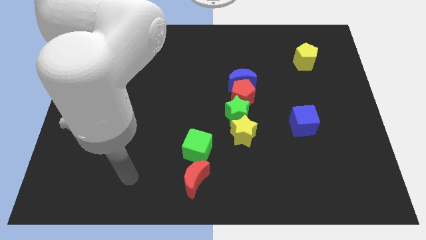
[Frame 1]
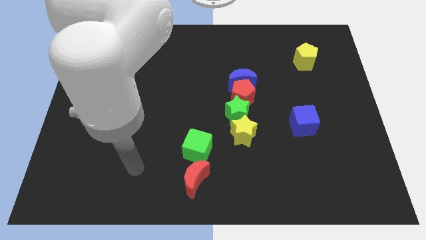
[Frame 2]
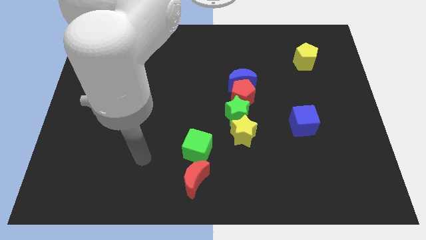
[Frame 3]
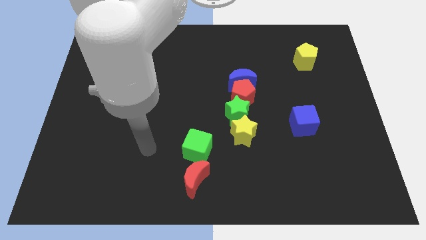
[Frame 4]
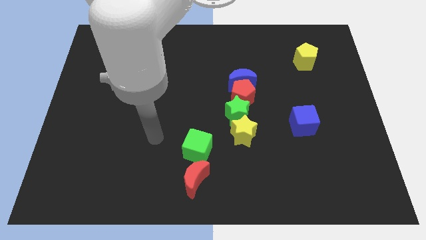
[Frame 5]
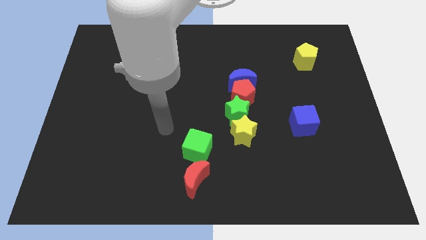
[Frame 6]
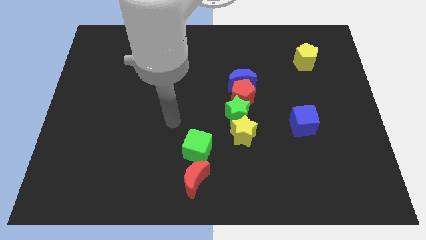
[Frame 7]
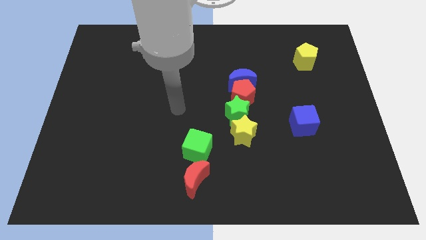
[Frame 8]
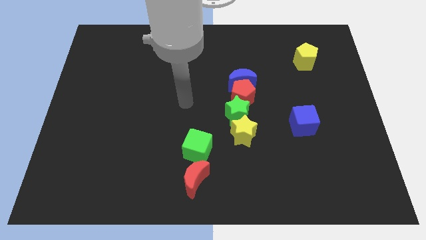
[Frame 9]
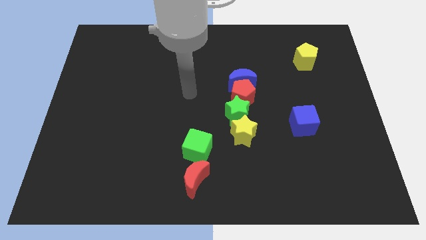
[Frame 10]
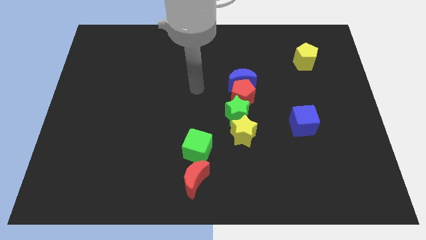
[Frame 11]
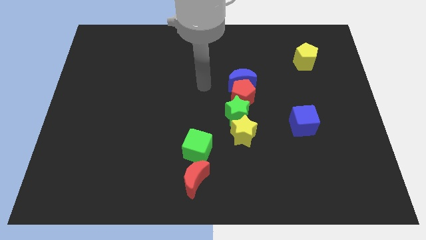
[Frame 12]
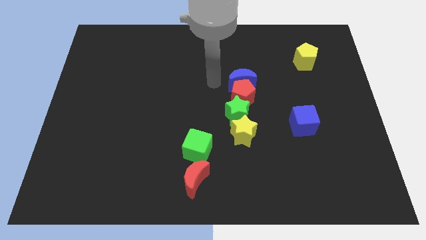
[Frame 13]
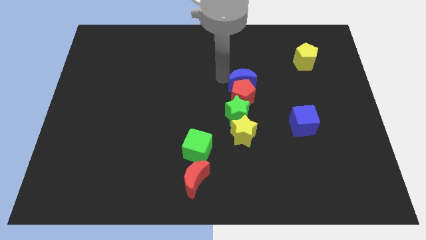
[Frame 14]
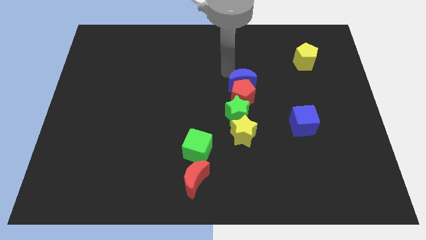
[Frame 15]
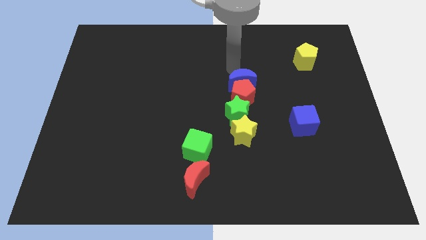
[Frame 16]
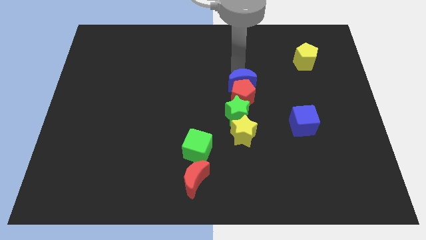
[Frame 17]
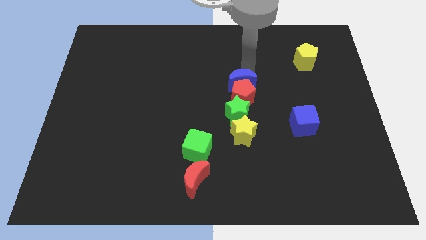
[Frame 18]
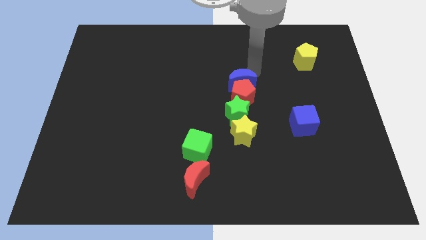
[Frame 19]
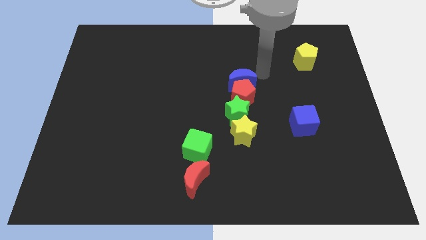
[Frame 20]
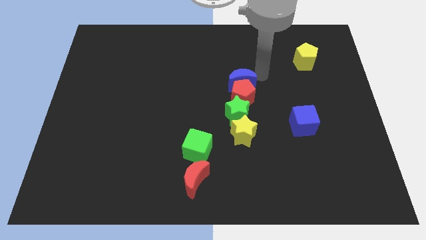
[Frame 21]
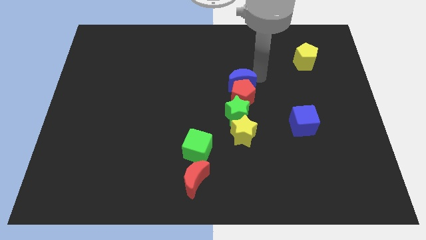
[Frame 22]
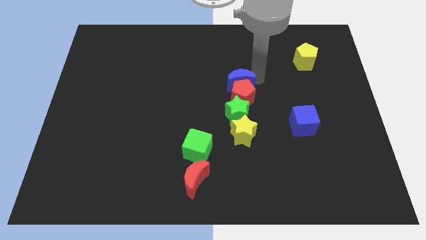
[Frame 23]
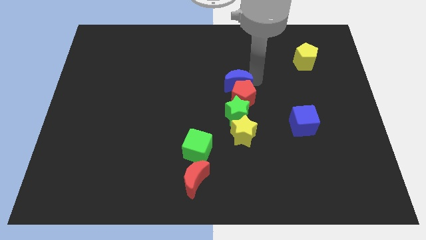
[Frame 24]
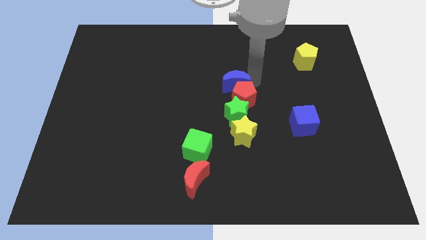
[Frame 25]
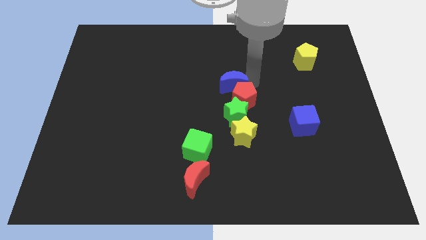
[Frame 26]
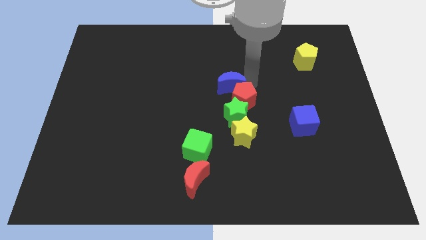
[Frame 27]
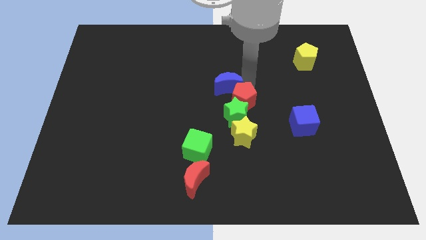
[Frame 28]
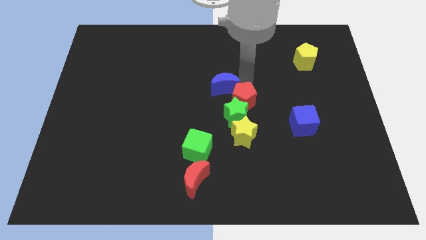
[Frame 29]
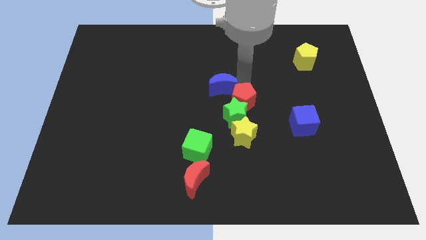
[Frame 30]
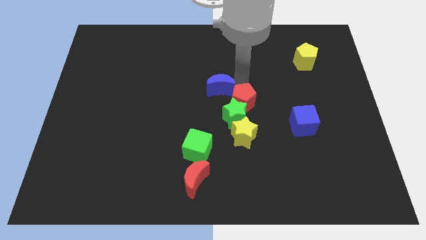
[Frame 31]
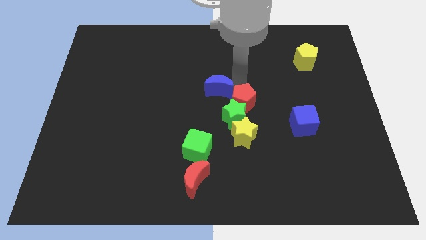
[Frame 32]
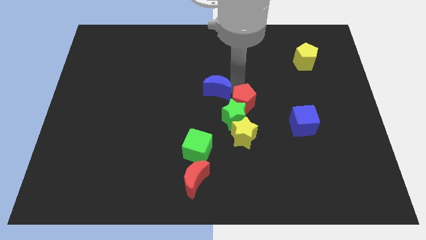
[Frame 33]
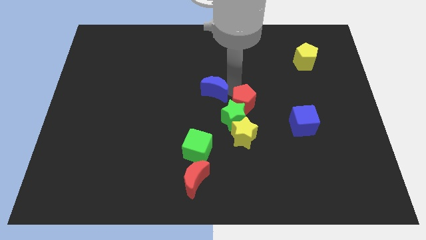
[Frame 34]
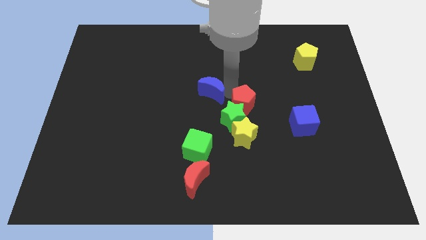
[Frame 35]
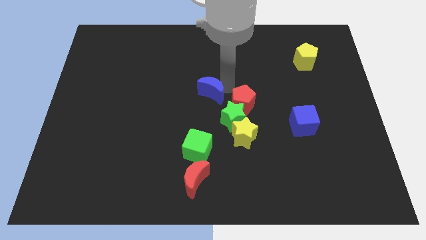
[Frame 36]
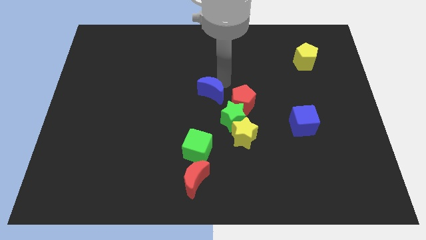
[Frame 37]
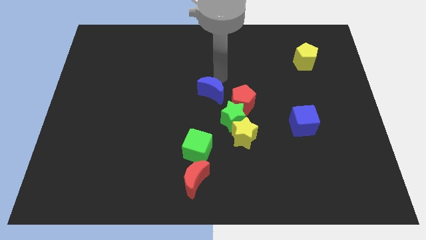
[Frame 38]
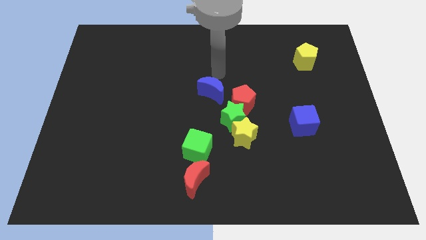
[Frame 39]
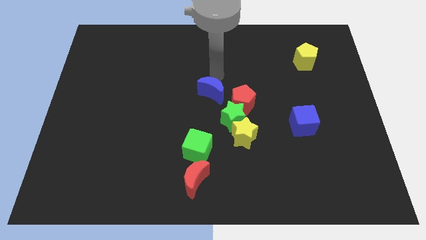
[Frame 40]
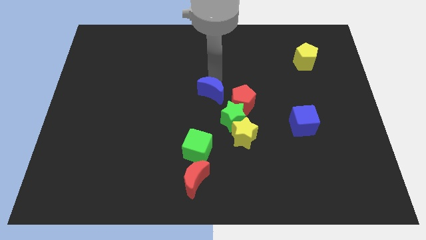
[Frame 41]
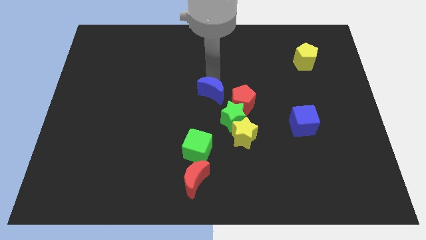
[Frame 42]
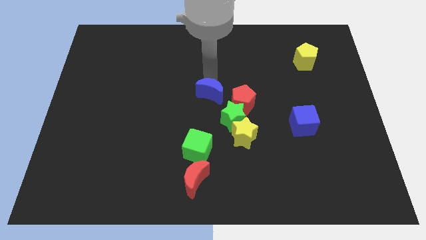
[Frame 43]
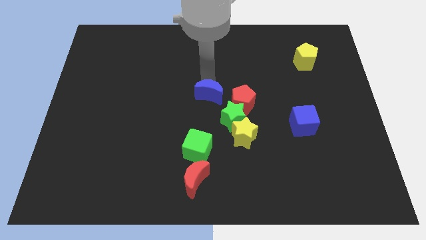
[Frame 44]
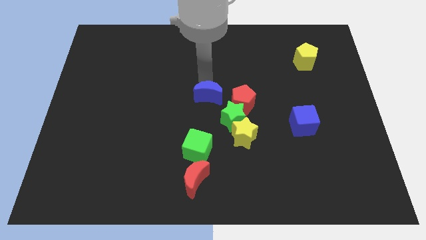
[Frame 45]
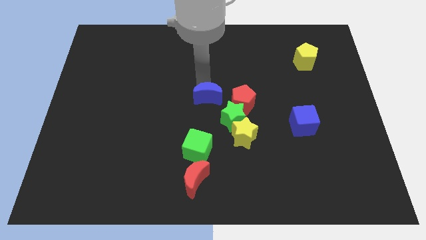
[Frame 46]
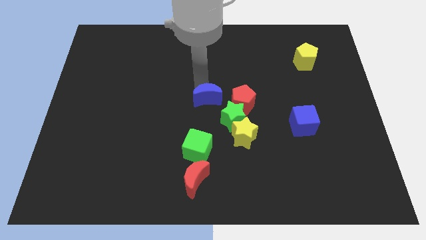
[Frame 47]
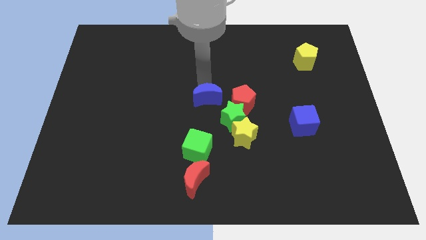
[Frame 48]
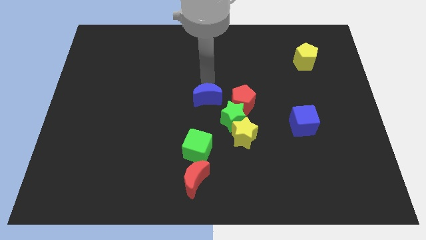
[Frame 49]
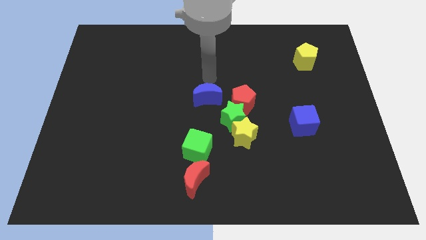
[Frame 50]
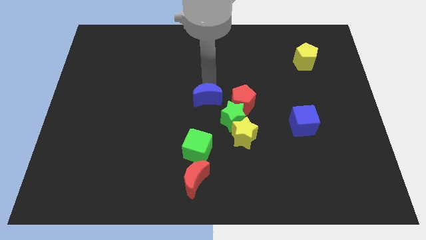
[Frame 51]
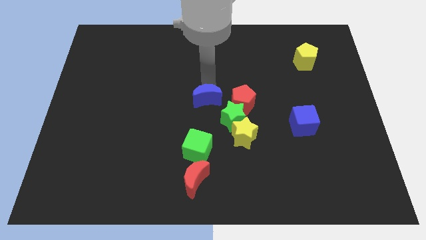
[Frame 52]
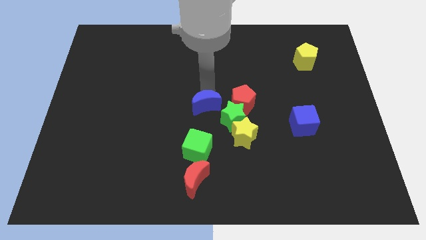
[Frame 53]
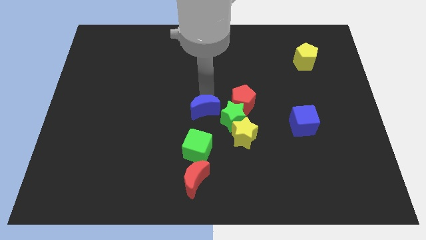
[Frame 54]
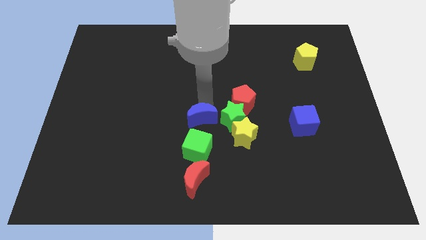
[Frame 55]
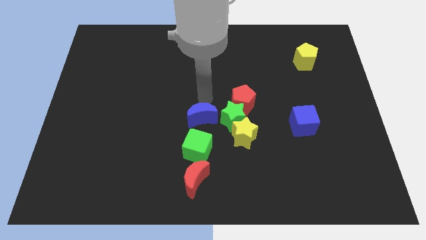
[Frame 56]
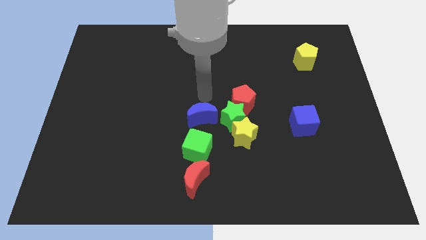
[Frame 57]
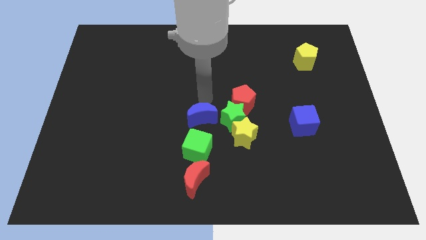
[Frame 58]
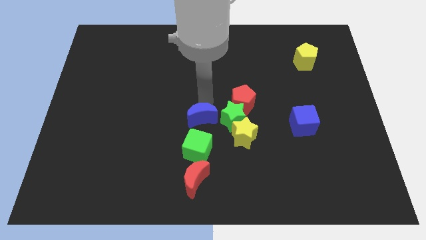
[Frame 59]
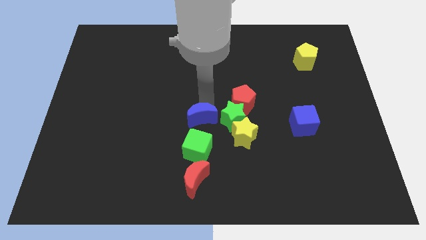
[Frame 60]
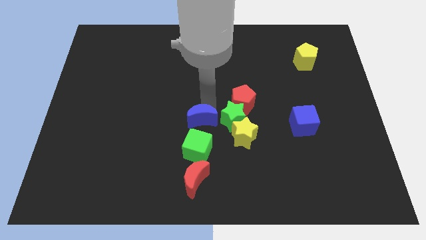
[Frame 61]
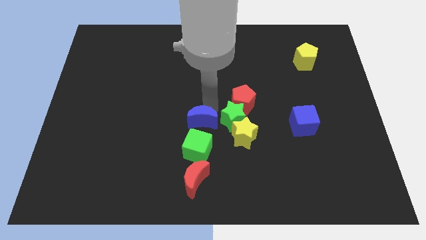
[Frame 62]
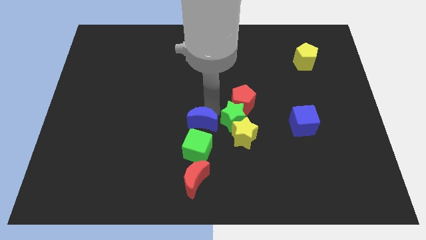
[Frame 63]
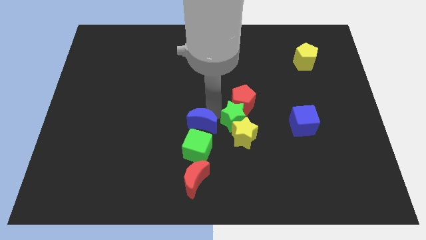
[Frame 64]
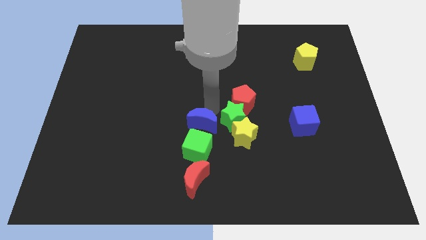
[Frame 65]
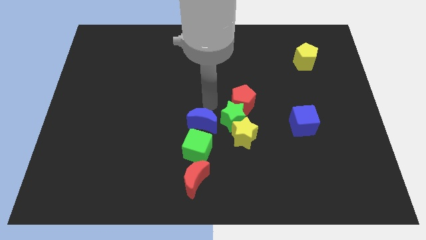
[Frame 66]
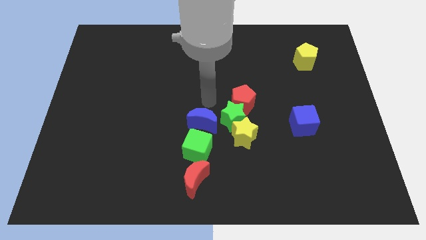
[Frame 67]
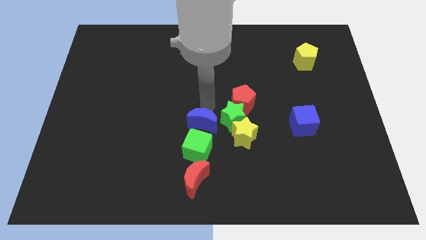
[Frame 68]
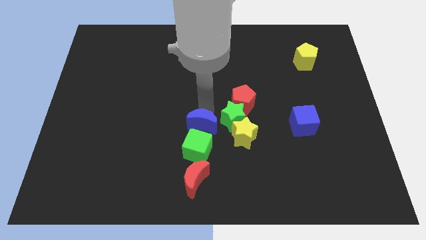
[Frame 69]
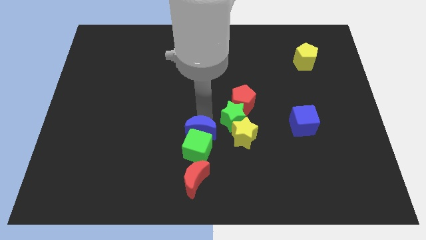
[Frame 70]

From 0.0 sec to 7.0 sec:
slide the blue moon close to the green cube

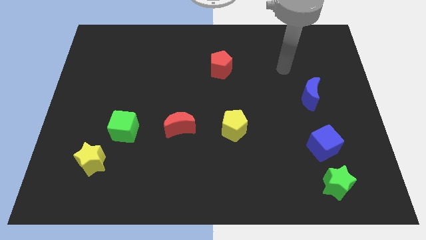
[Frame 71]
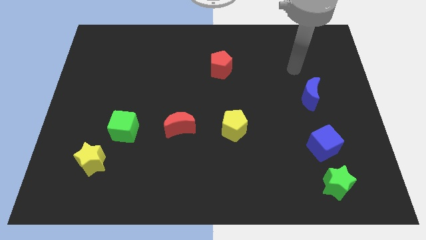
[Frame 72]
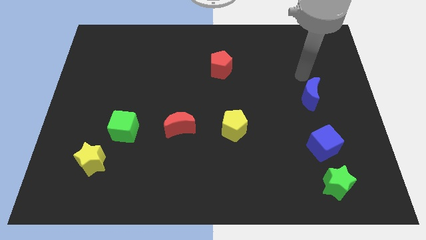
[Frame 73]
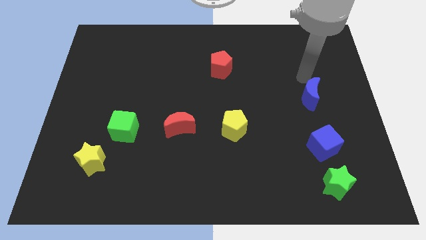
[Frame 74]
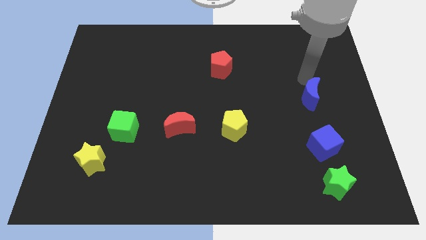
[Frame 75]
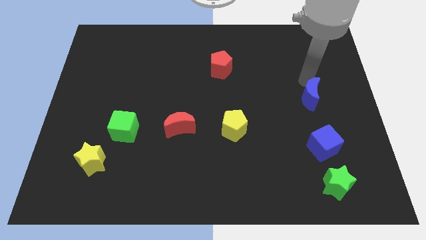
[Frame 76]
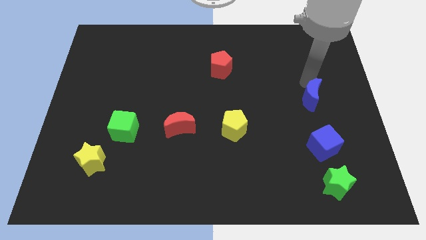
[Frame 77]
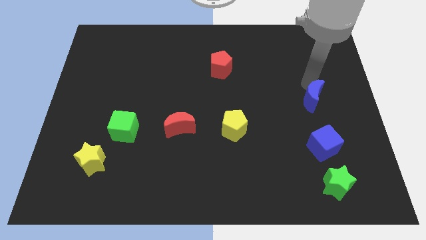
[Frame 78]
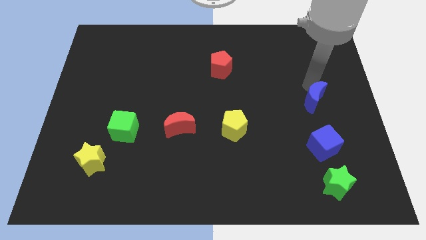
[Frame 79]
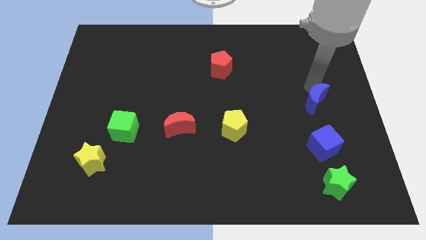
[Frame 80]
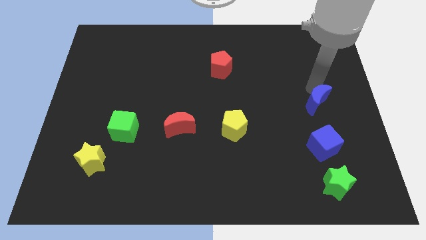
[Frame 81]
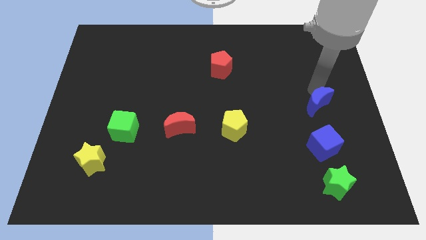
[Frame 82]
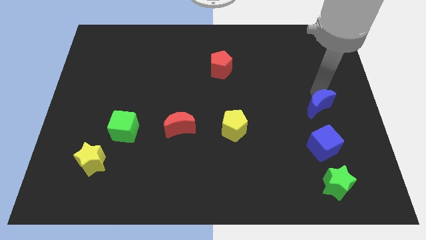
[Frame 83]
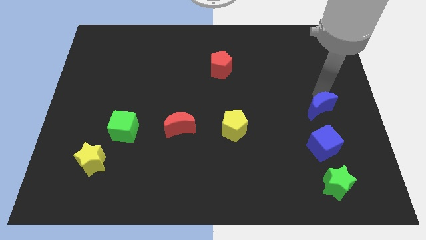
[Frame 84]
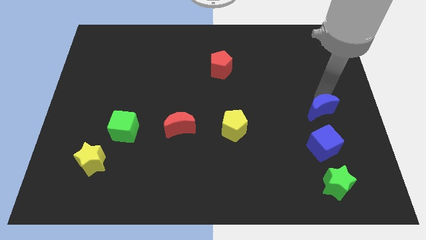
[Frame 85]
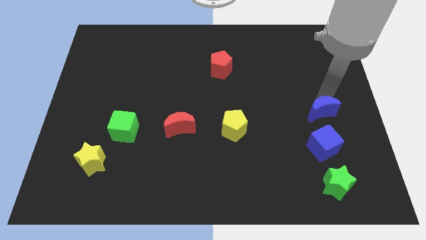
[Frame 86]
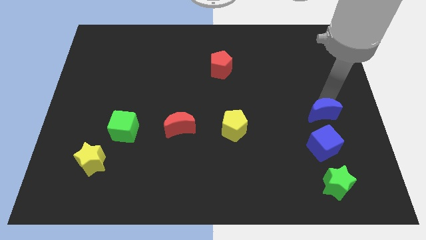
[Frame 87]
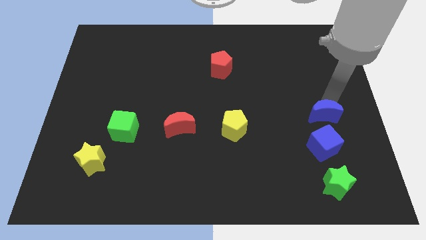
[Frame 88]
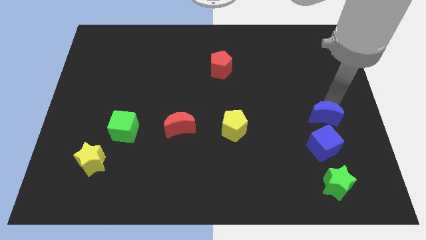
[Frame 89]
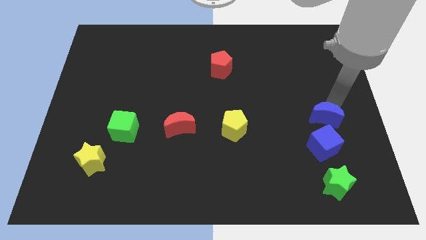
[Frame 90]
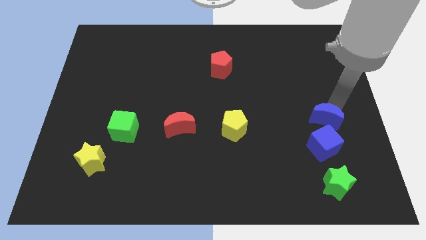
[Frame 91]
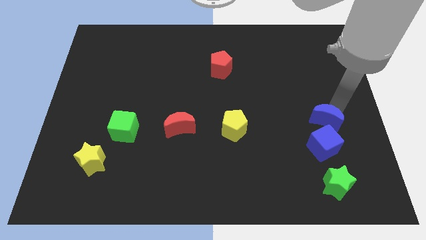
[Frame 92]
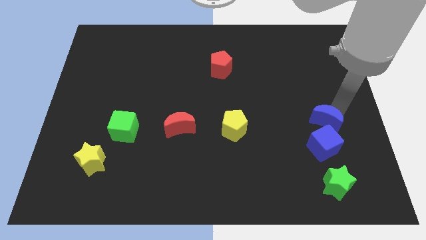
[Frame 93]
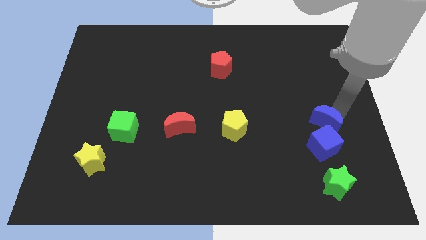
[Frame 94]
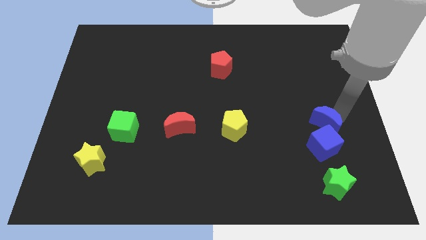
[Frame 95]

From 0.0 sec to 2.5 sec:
push the blue moon next to the blue cube
